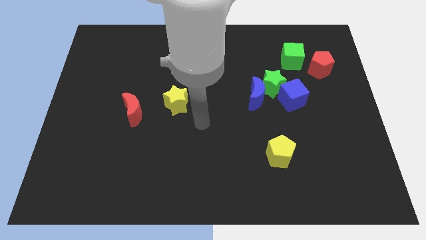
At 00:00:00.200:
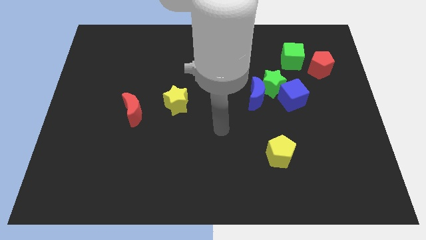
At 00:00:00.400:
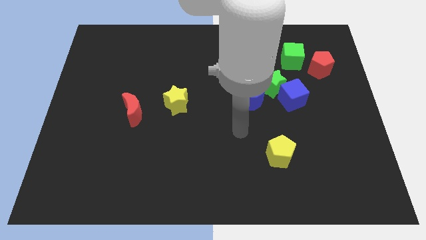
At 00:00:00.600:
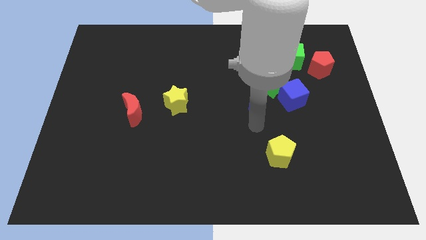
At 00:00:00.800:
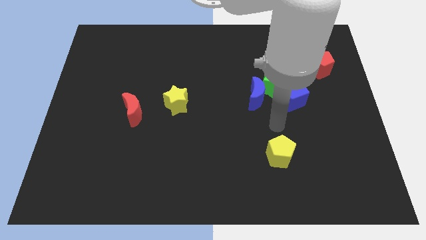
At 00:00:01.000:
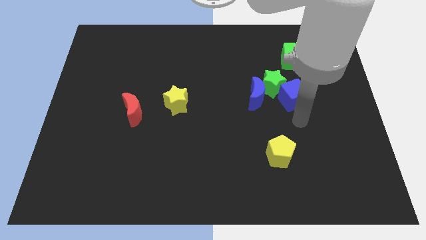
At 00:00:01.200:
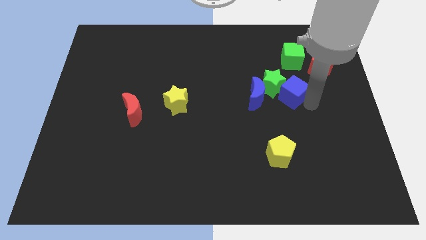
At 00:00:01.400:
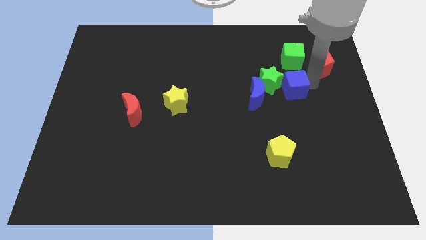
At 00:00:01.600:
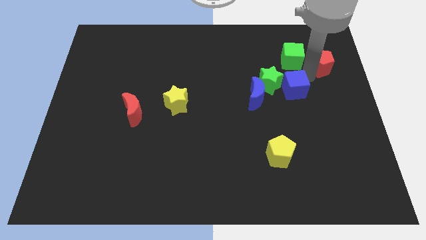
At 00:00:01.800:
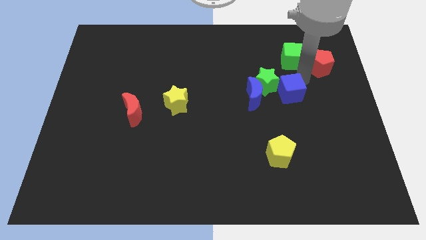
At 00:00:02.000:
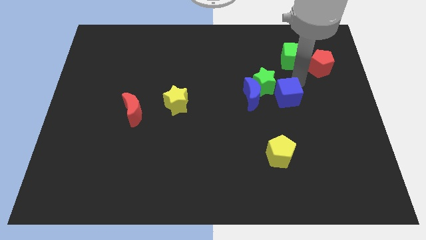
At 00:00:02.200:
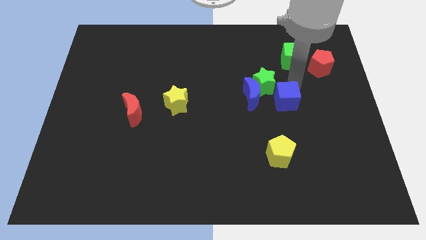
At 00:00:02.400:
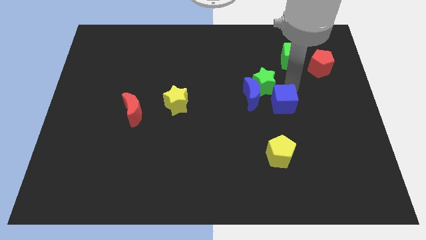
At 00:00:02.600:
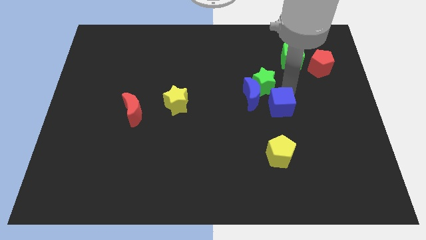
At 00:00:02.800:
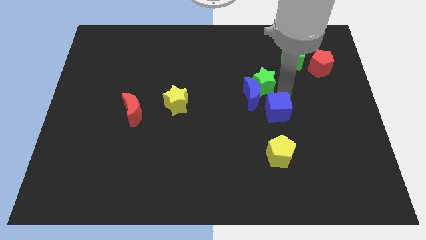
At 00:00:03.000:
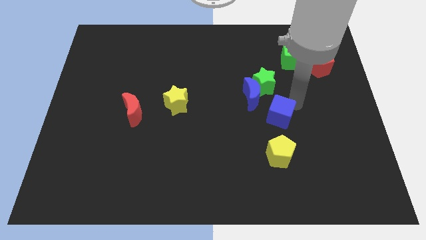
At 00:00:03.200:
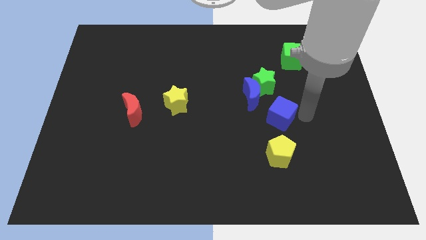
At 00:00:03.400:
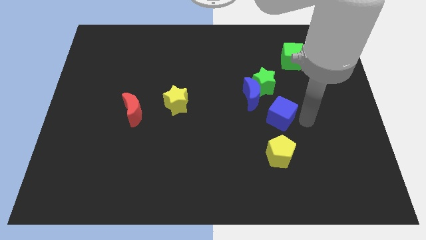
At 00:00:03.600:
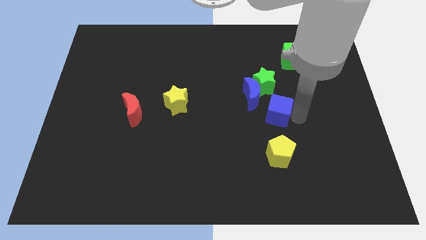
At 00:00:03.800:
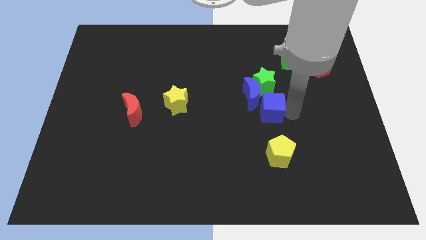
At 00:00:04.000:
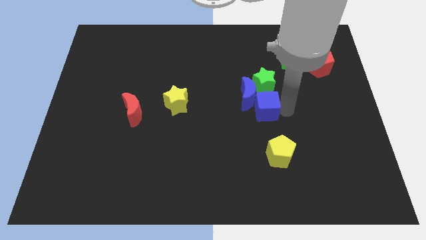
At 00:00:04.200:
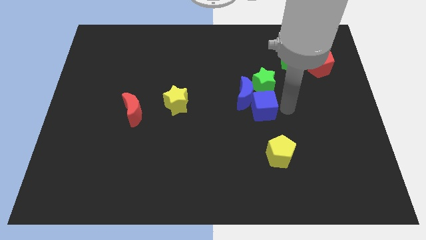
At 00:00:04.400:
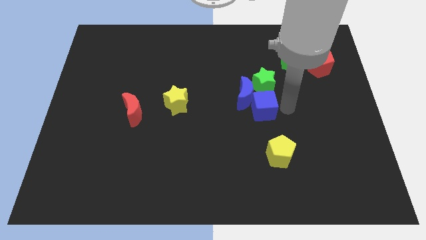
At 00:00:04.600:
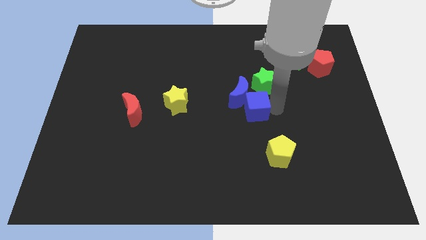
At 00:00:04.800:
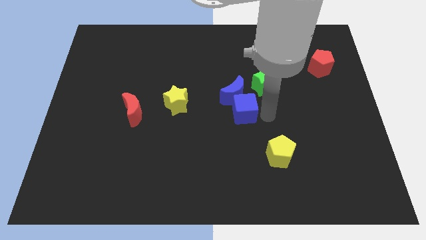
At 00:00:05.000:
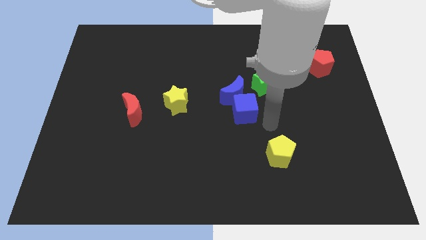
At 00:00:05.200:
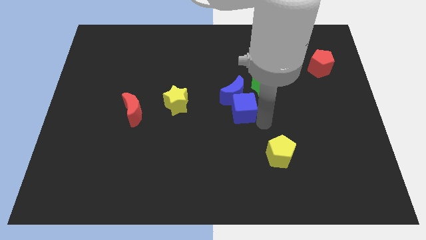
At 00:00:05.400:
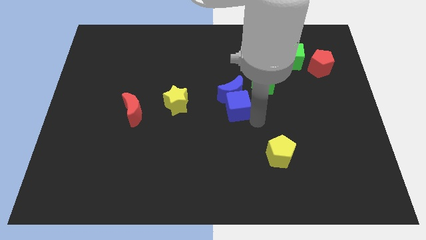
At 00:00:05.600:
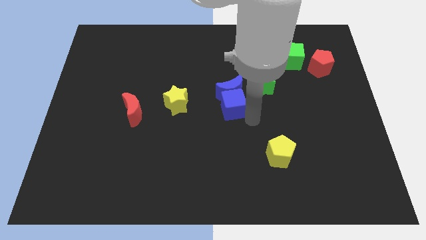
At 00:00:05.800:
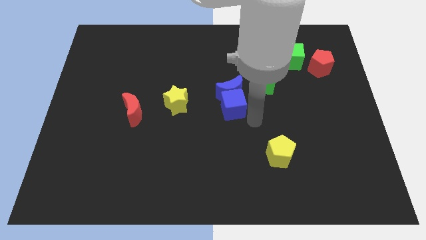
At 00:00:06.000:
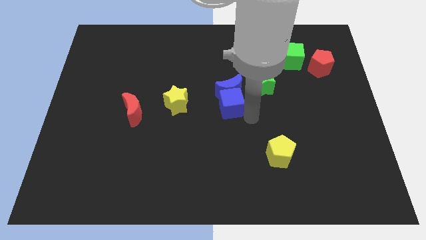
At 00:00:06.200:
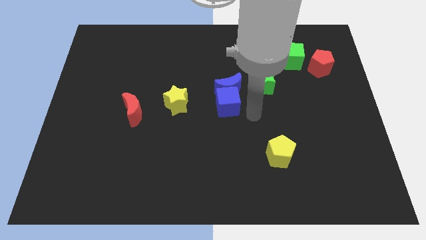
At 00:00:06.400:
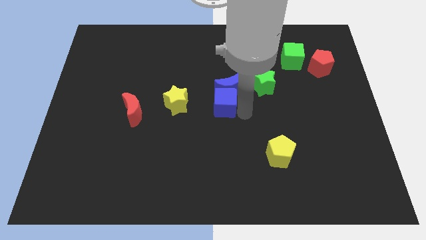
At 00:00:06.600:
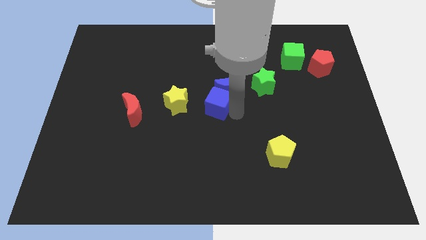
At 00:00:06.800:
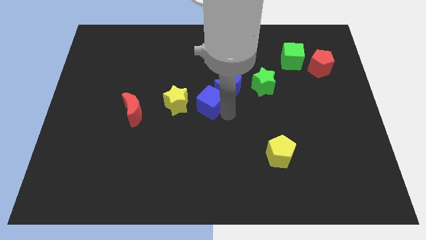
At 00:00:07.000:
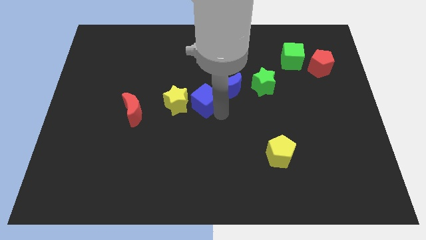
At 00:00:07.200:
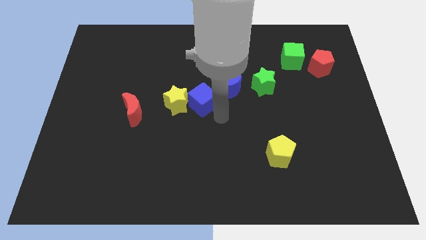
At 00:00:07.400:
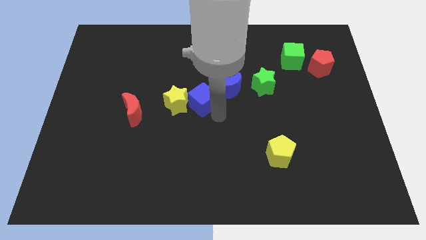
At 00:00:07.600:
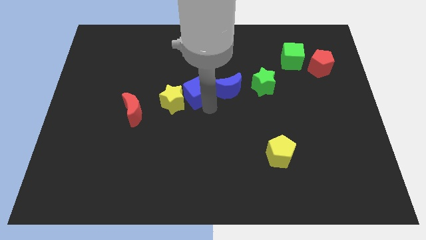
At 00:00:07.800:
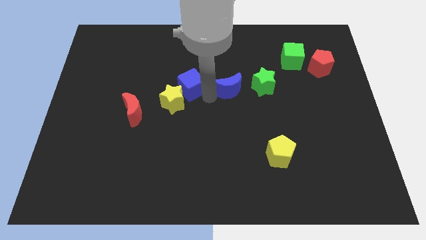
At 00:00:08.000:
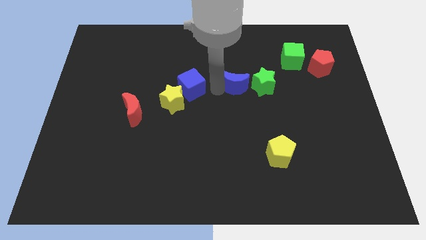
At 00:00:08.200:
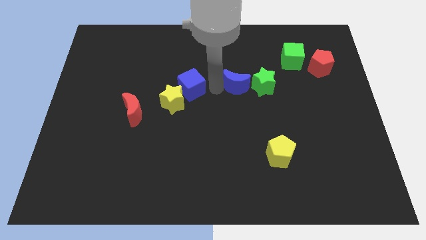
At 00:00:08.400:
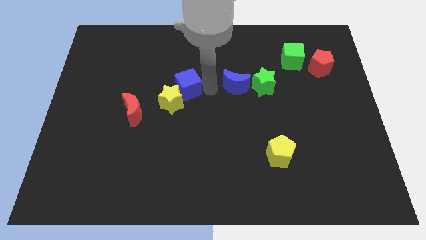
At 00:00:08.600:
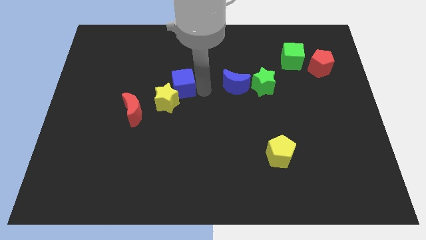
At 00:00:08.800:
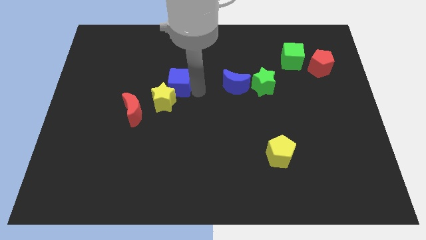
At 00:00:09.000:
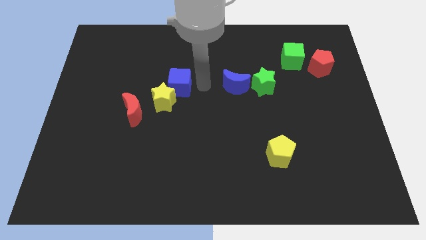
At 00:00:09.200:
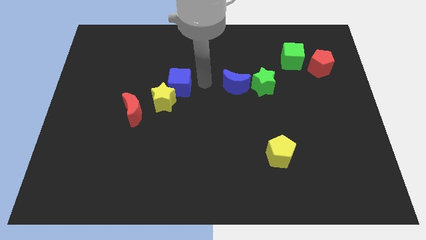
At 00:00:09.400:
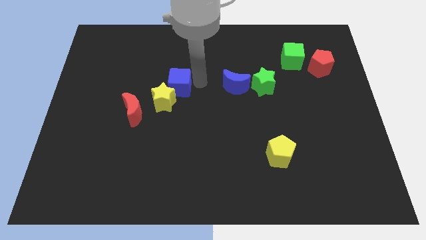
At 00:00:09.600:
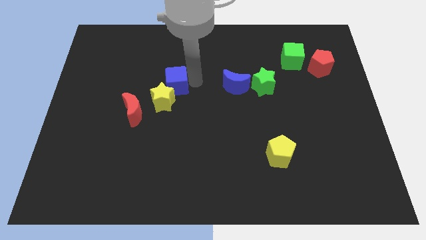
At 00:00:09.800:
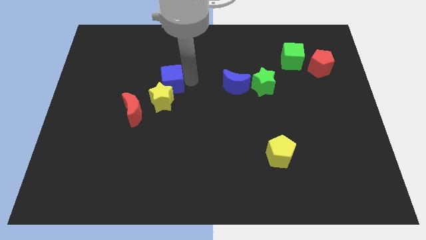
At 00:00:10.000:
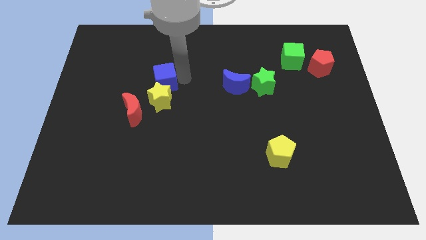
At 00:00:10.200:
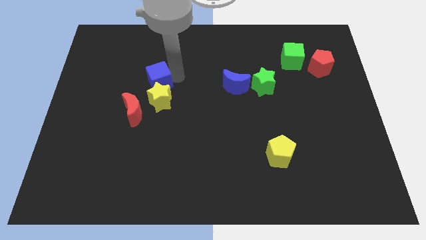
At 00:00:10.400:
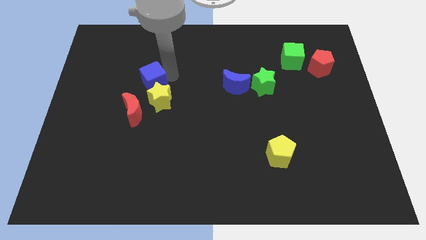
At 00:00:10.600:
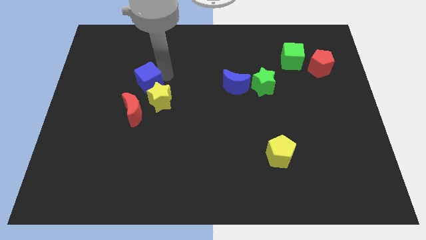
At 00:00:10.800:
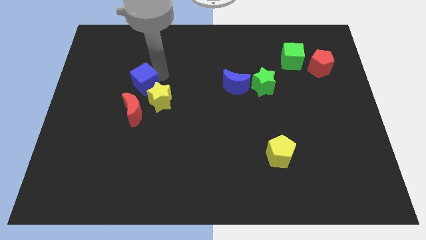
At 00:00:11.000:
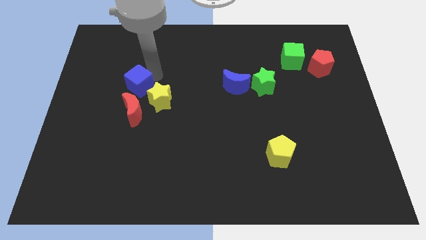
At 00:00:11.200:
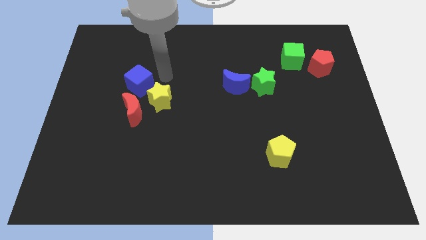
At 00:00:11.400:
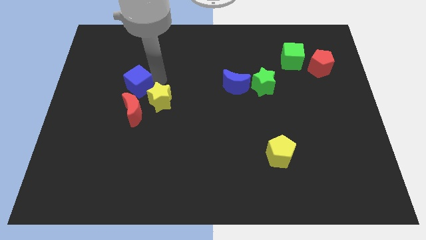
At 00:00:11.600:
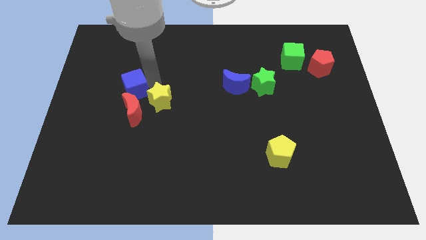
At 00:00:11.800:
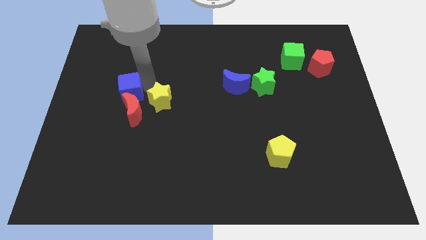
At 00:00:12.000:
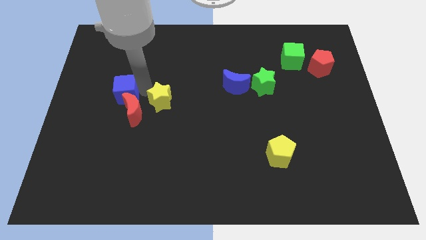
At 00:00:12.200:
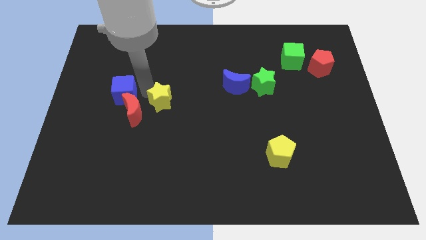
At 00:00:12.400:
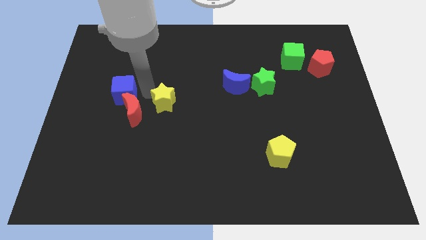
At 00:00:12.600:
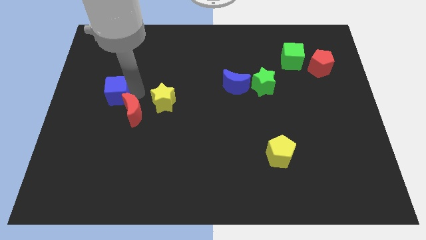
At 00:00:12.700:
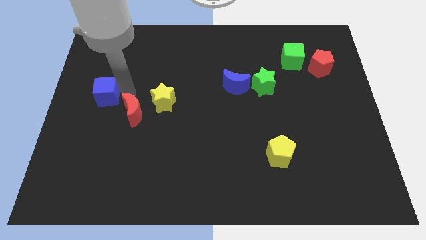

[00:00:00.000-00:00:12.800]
slide the blue cube to the left side
